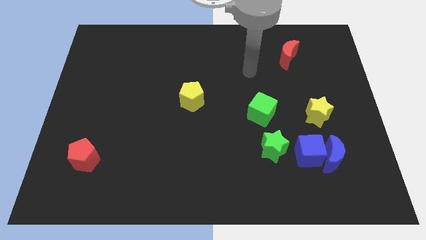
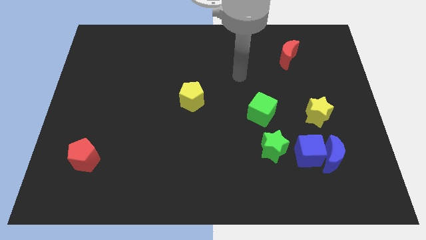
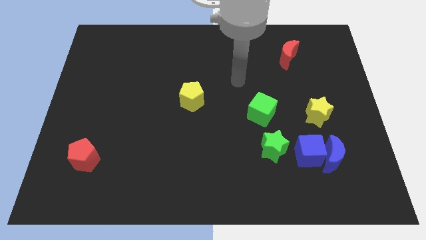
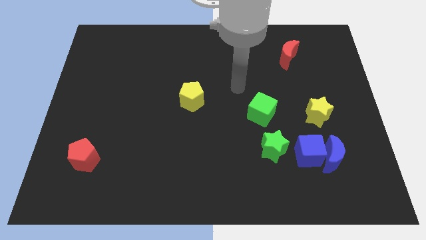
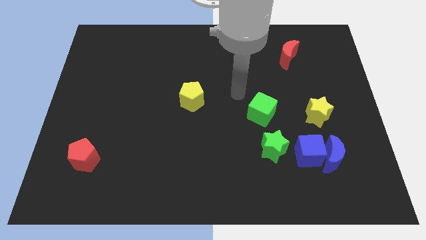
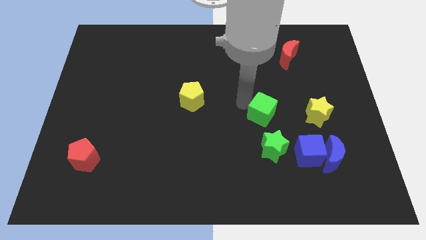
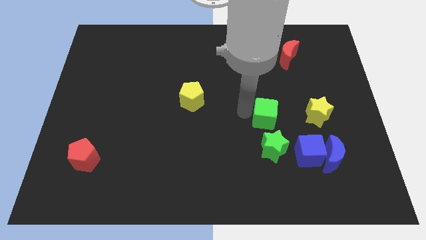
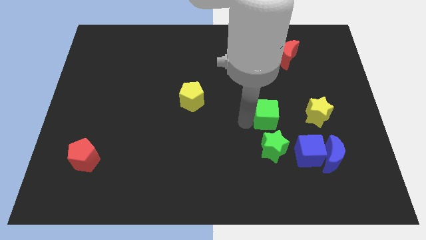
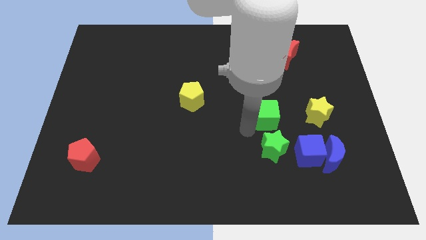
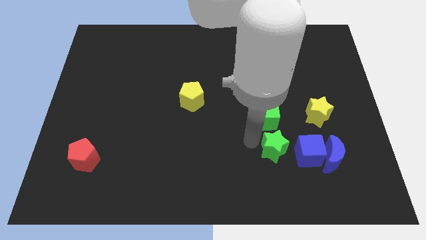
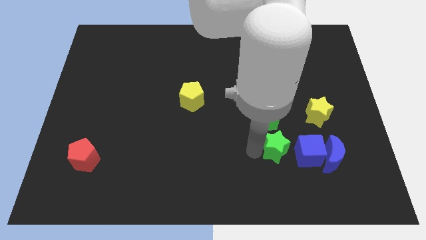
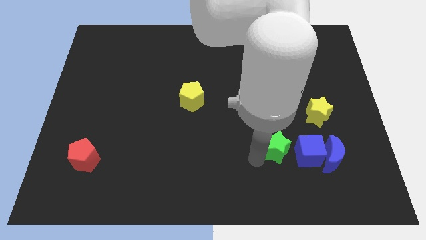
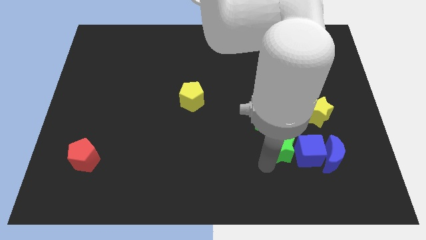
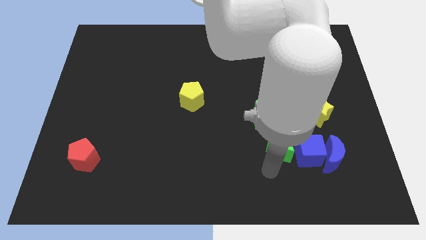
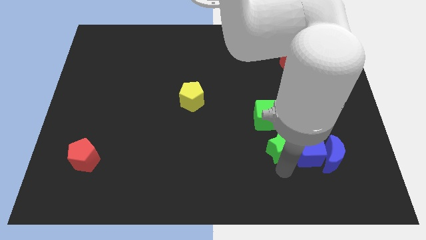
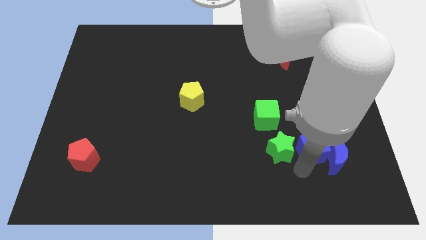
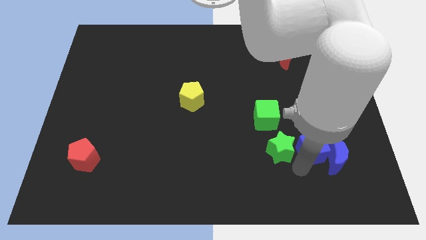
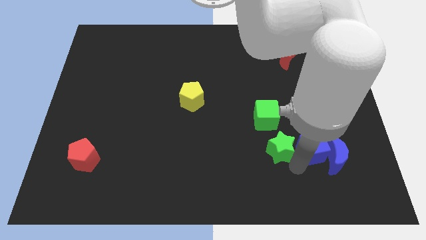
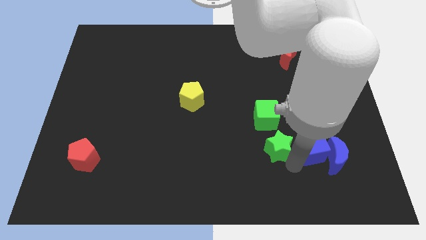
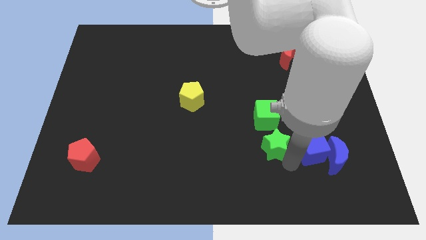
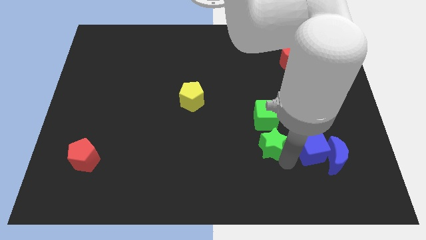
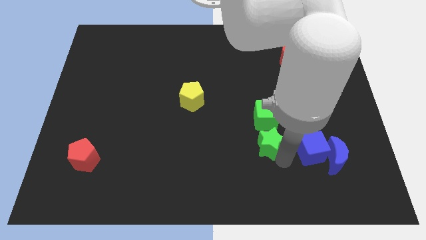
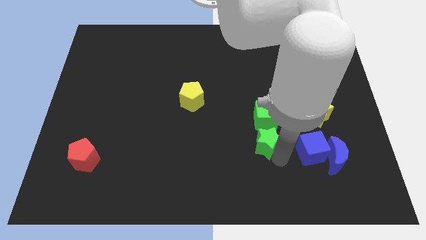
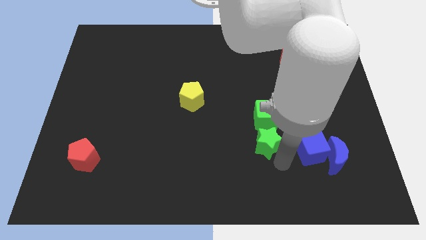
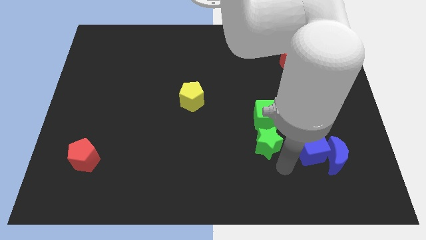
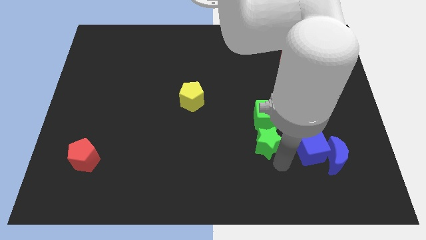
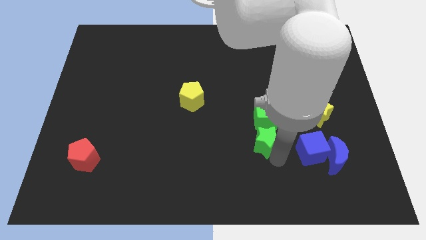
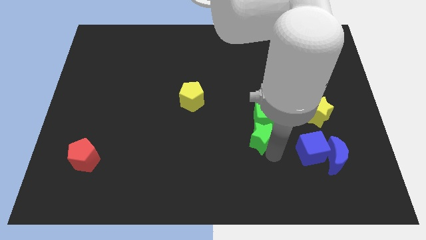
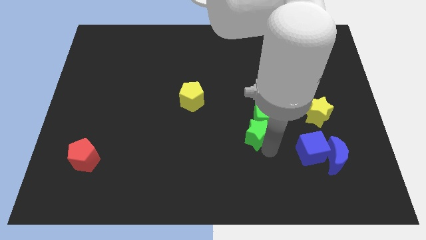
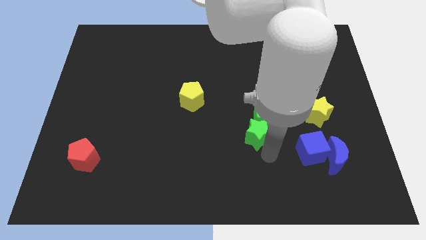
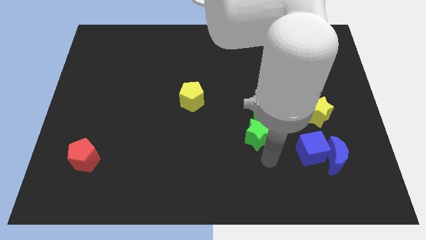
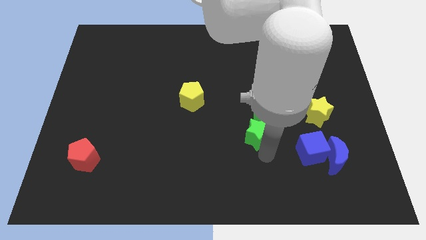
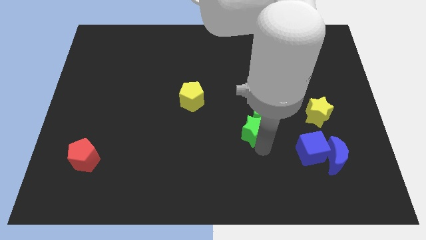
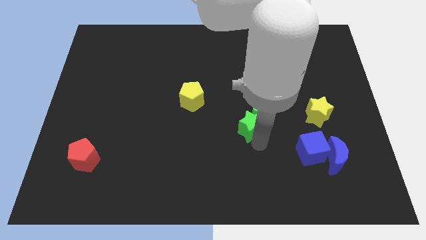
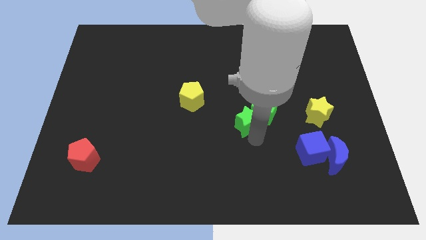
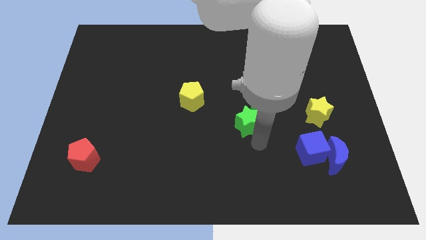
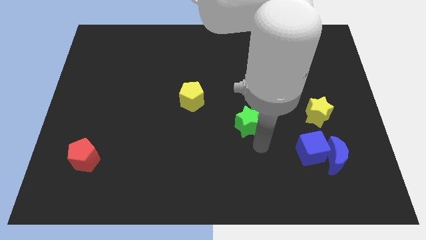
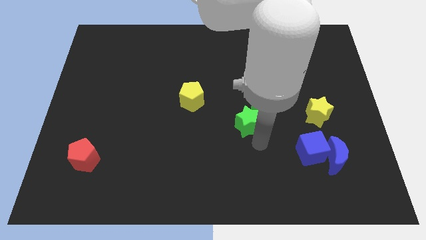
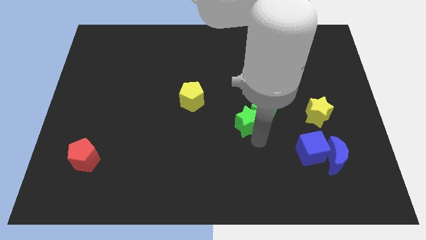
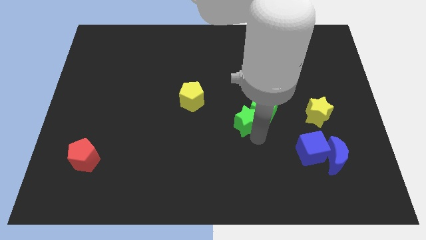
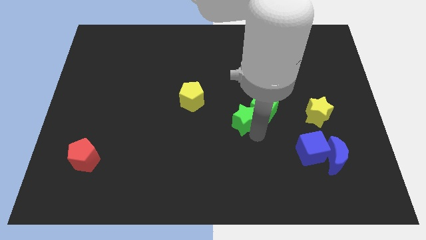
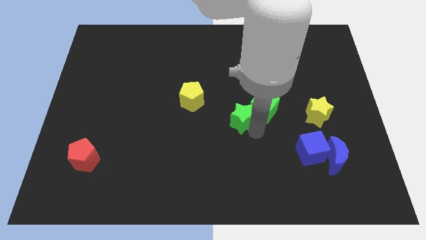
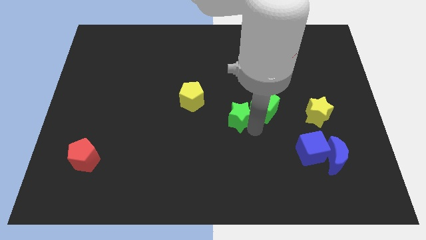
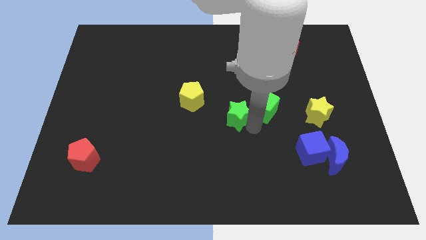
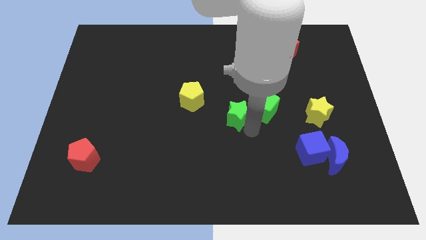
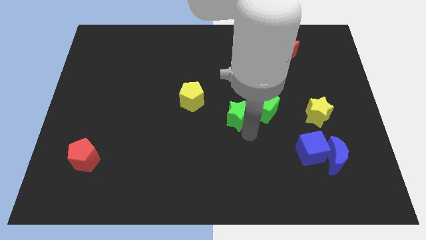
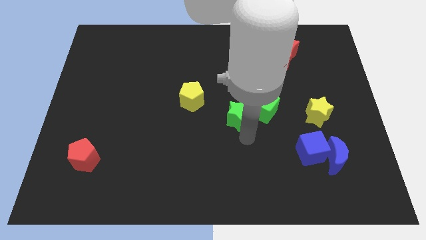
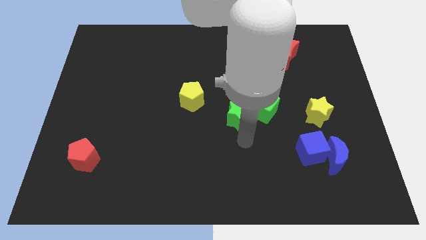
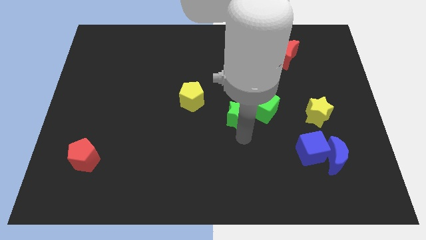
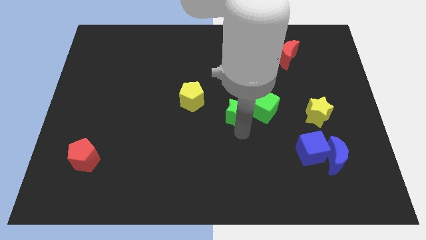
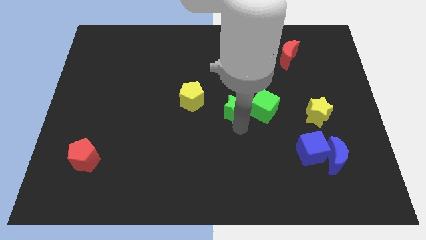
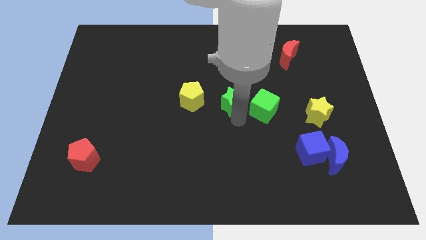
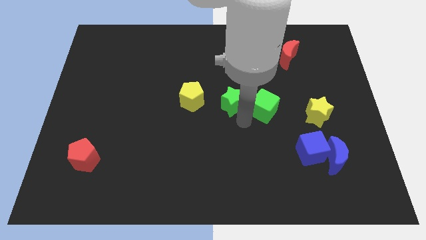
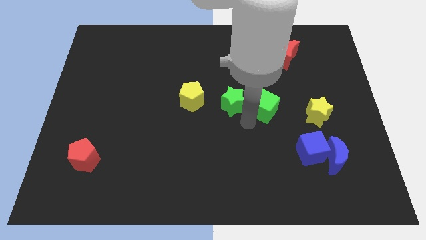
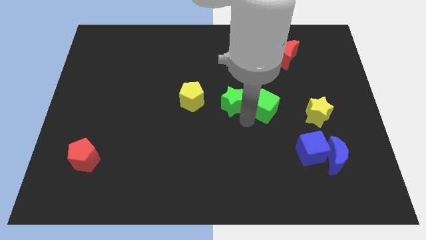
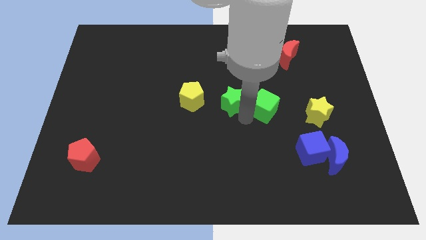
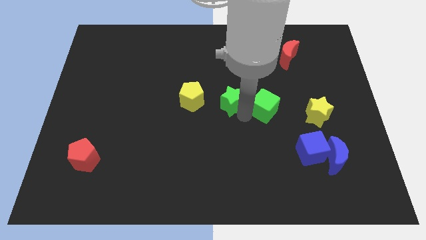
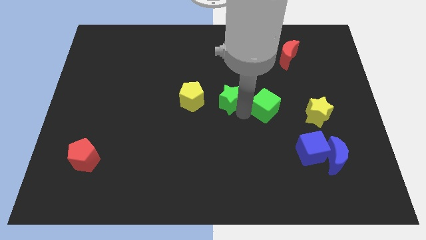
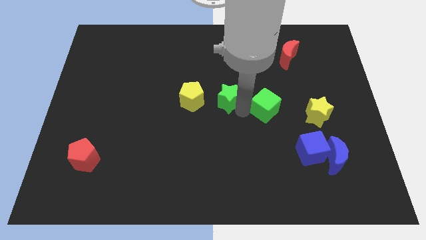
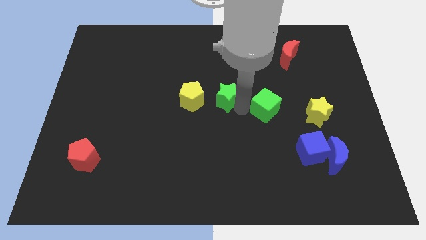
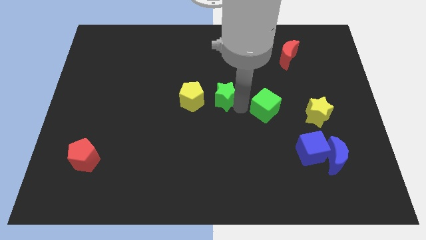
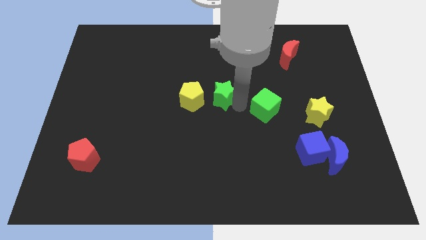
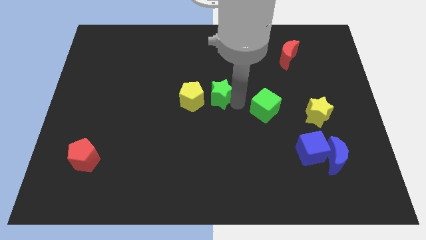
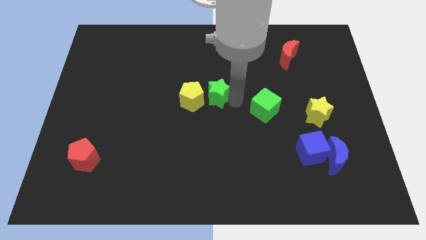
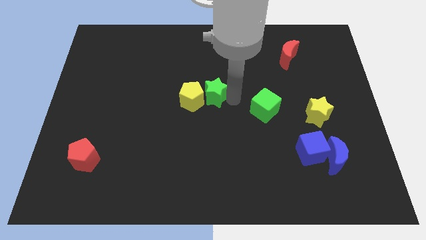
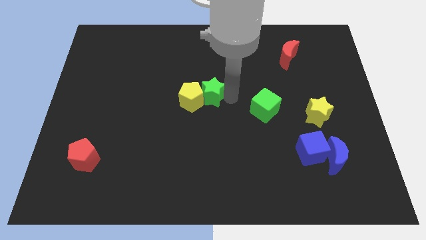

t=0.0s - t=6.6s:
slide the green star up and then to the left

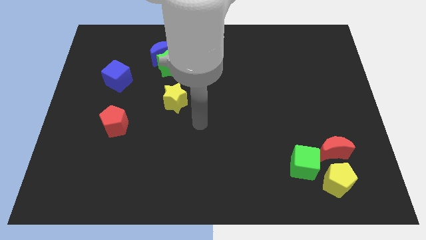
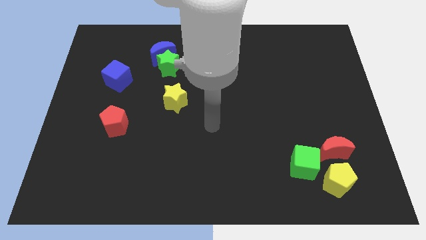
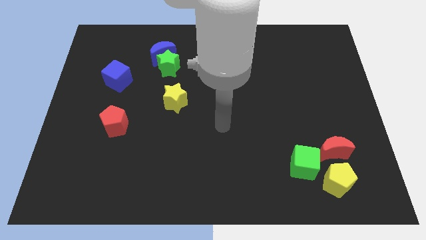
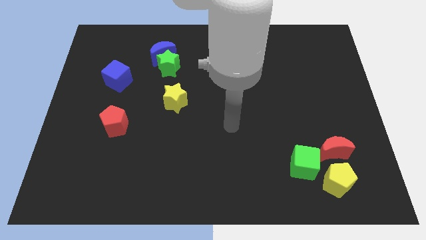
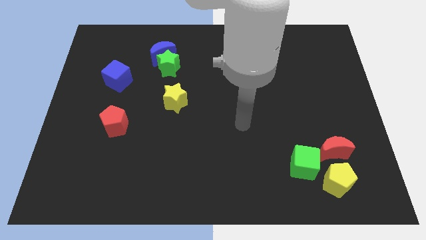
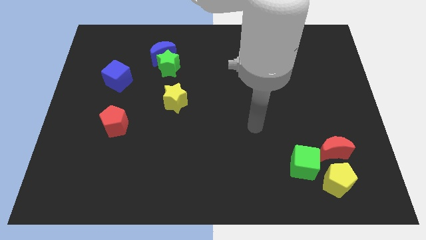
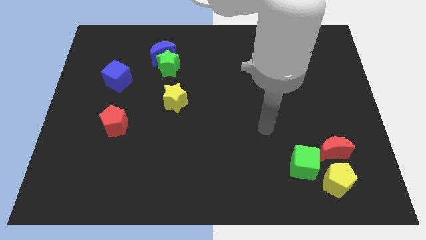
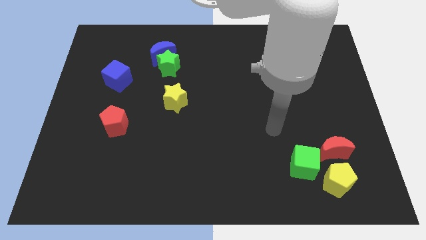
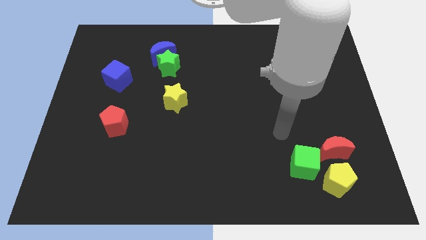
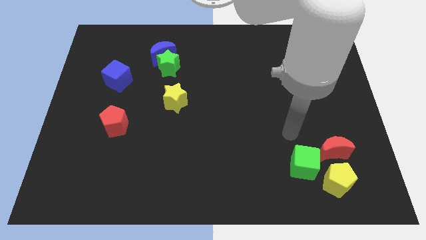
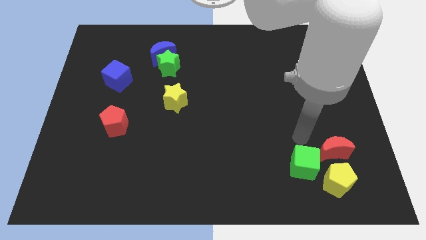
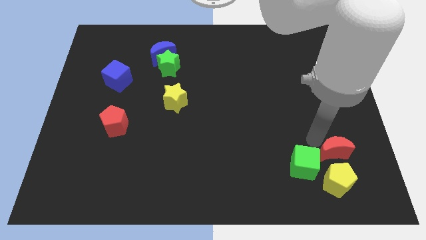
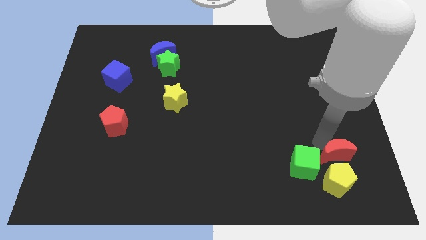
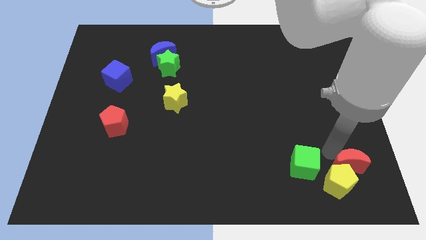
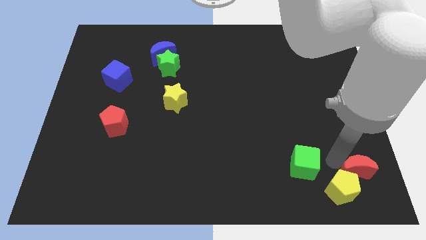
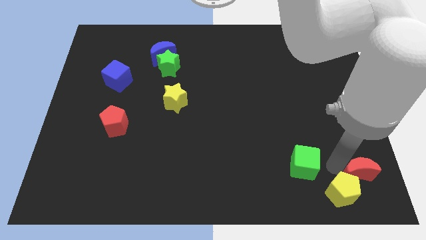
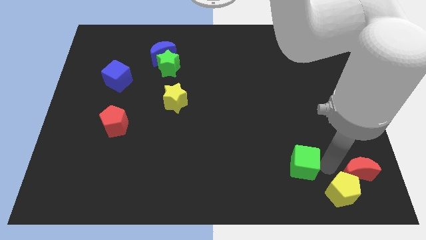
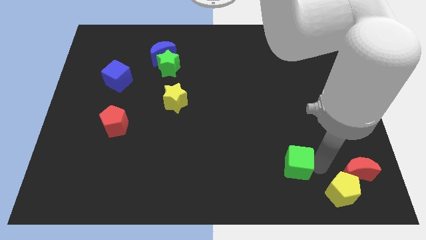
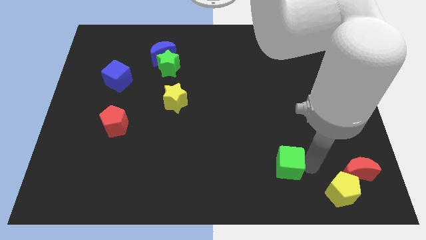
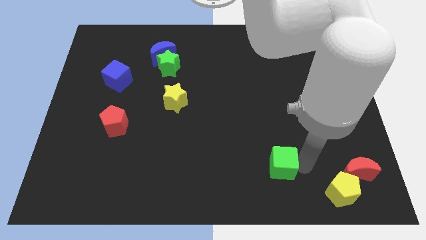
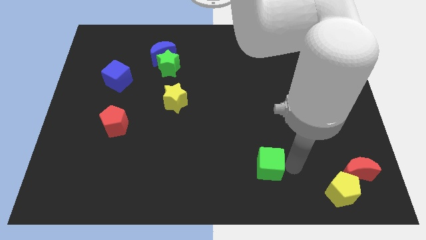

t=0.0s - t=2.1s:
move the green cube a bit left
